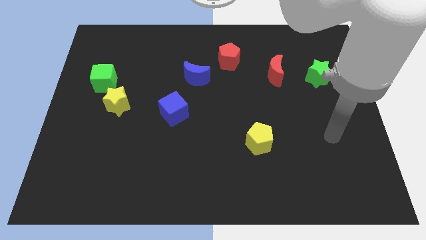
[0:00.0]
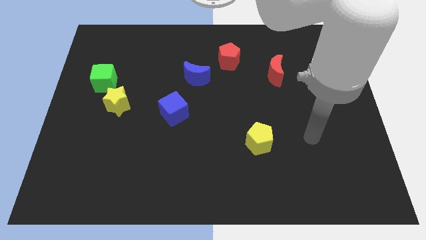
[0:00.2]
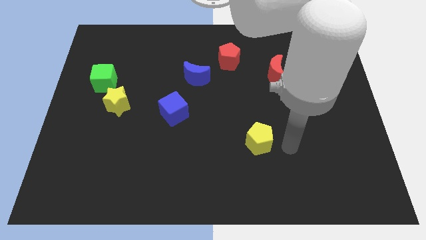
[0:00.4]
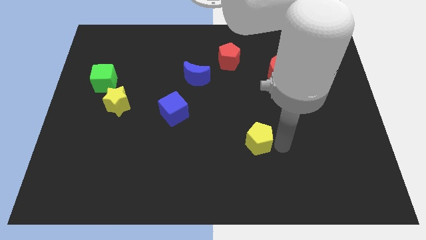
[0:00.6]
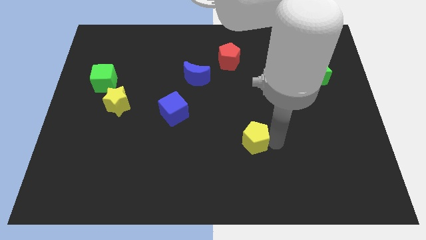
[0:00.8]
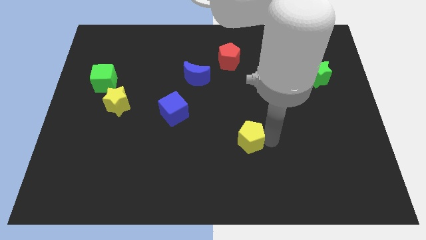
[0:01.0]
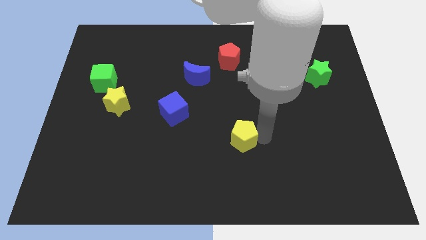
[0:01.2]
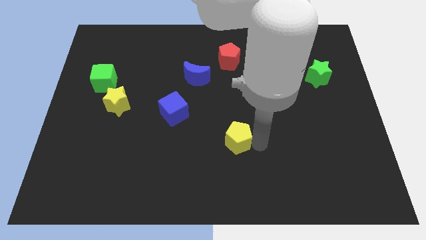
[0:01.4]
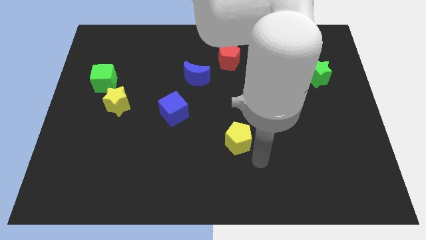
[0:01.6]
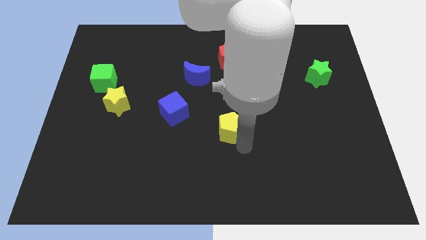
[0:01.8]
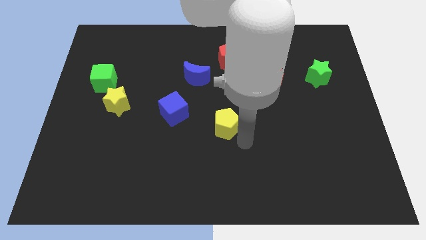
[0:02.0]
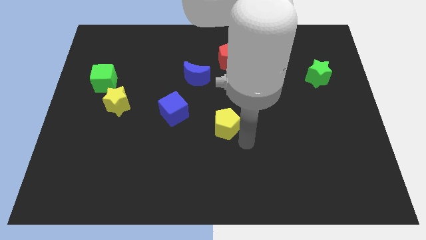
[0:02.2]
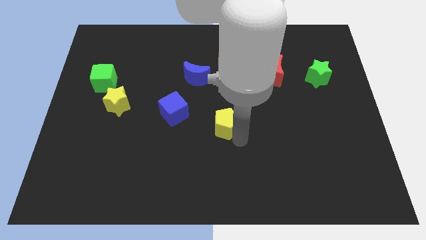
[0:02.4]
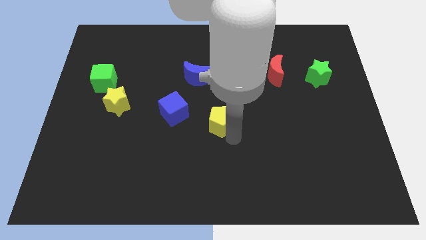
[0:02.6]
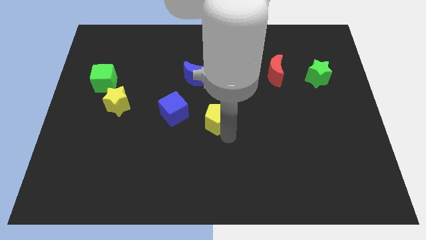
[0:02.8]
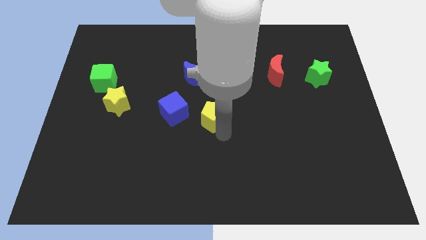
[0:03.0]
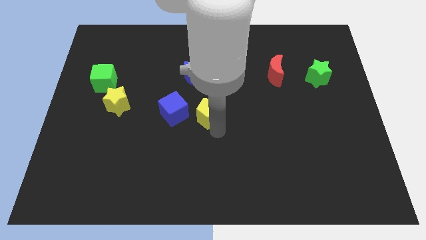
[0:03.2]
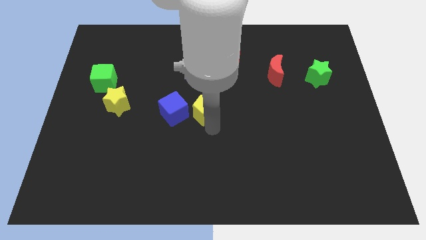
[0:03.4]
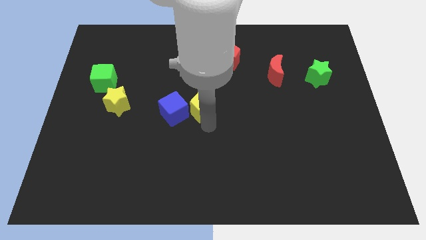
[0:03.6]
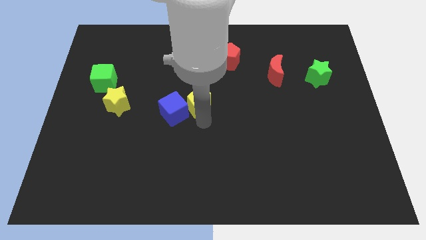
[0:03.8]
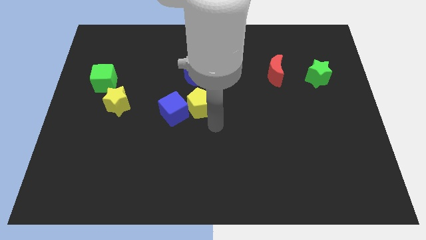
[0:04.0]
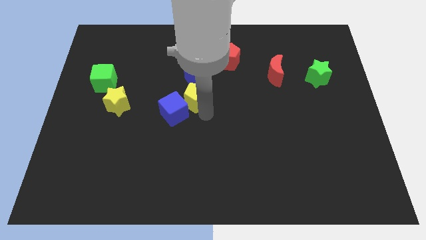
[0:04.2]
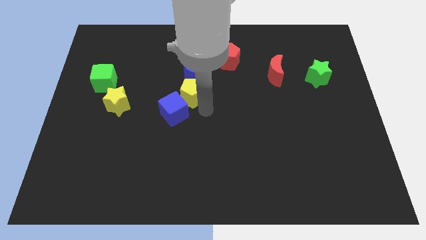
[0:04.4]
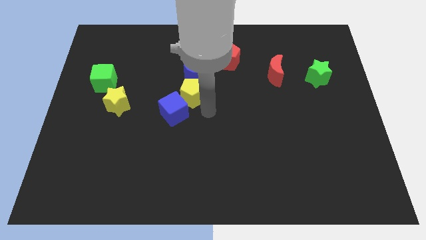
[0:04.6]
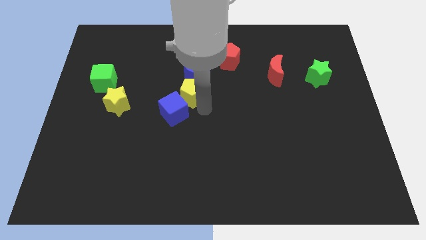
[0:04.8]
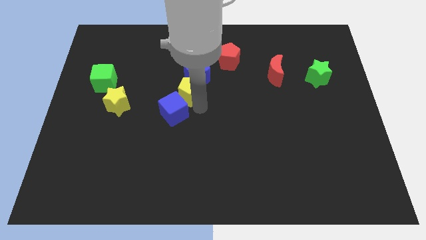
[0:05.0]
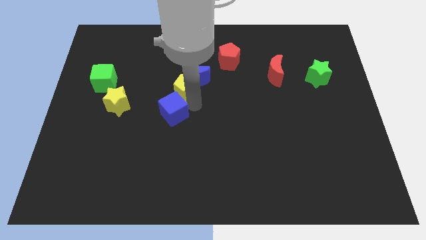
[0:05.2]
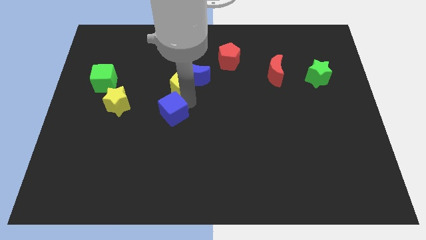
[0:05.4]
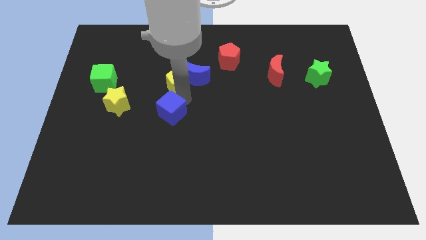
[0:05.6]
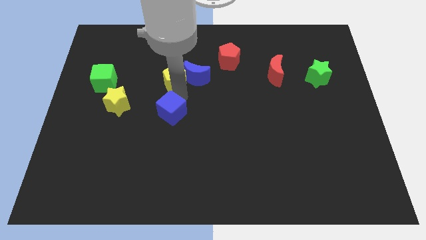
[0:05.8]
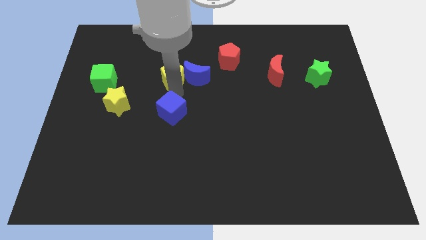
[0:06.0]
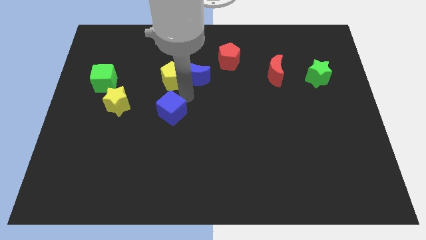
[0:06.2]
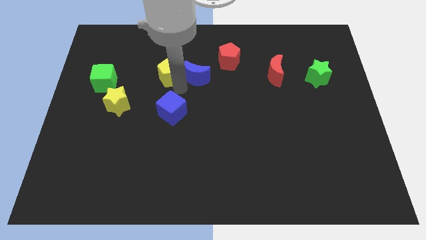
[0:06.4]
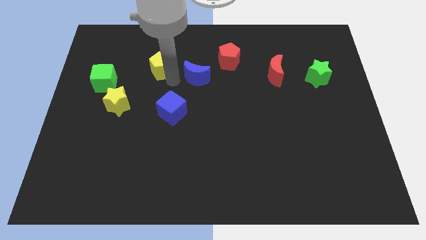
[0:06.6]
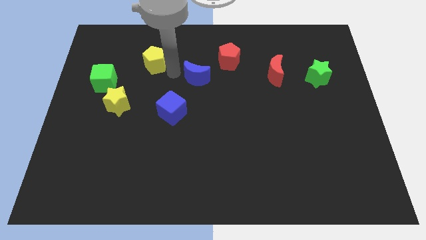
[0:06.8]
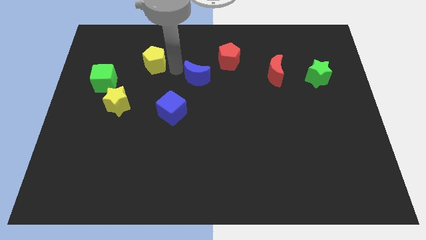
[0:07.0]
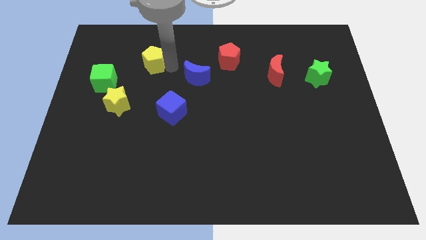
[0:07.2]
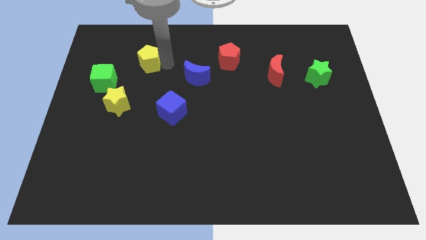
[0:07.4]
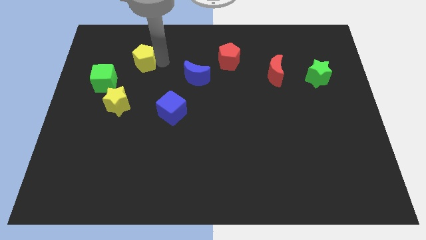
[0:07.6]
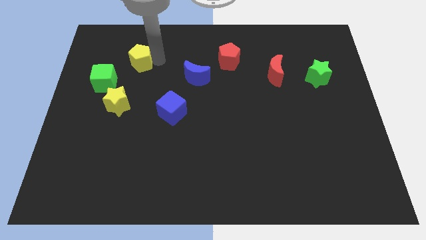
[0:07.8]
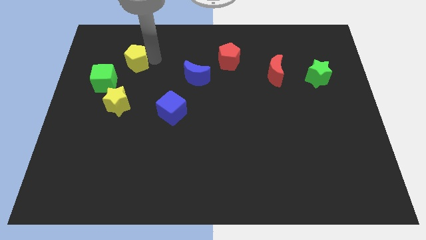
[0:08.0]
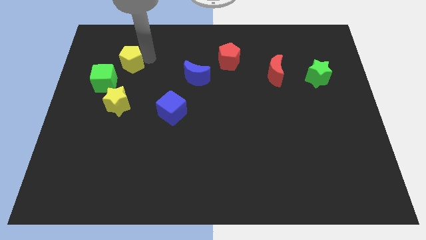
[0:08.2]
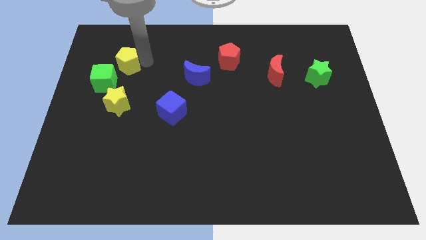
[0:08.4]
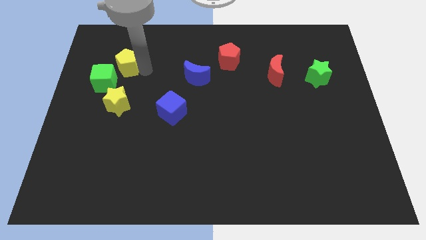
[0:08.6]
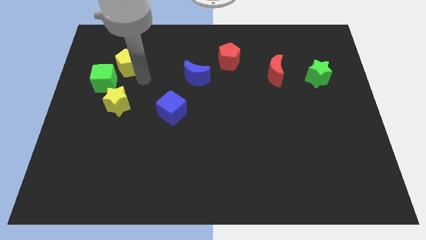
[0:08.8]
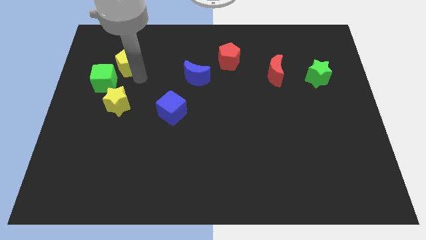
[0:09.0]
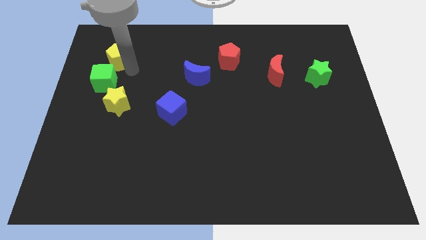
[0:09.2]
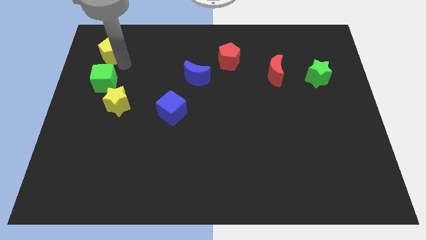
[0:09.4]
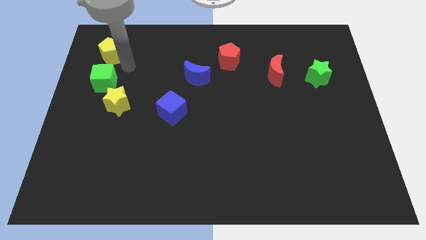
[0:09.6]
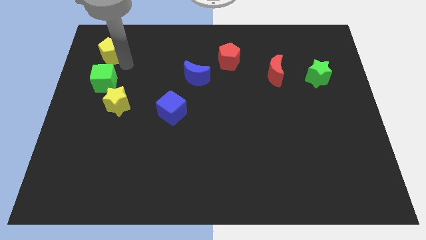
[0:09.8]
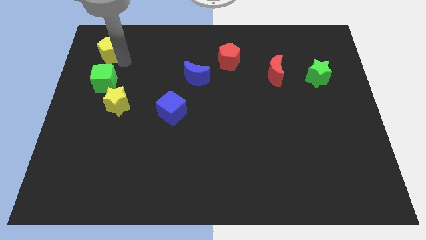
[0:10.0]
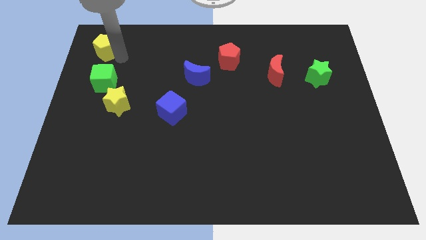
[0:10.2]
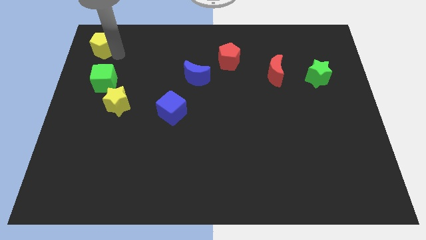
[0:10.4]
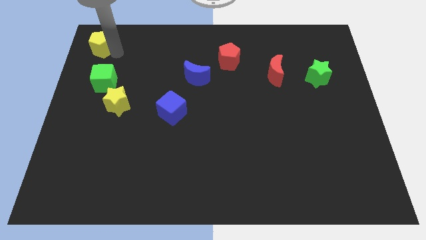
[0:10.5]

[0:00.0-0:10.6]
move the yellow pentagon to the top left of the board
